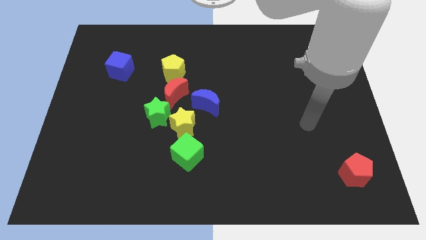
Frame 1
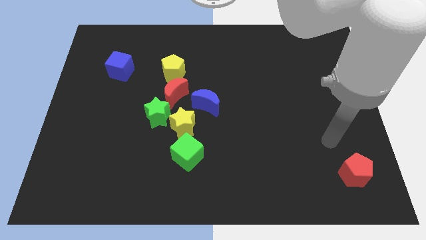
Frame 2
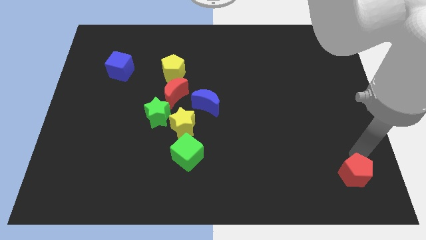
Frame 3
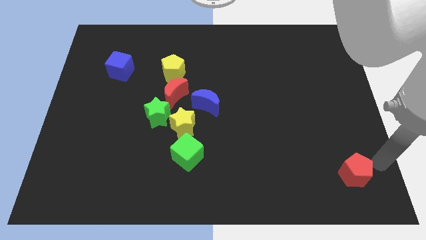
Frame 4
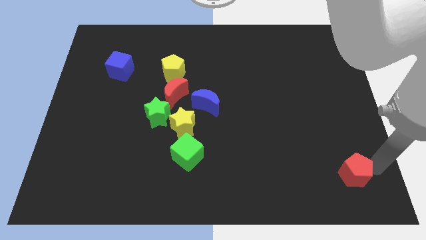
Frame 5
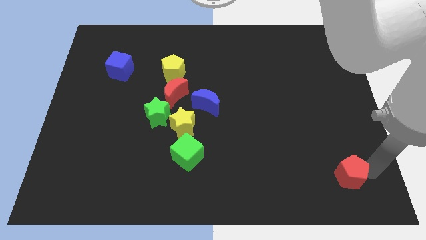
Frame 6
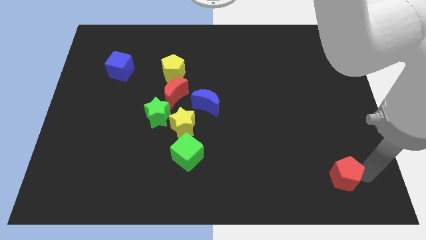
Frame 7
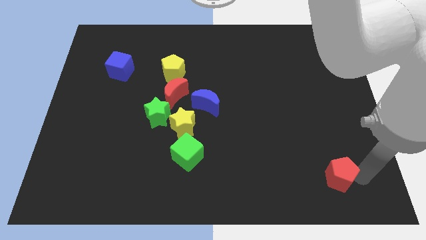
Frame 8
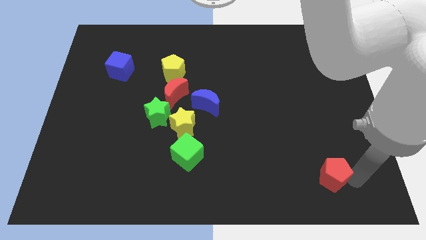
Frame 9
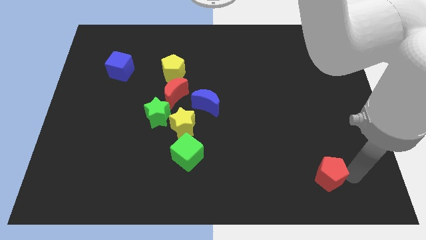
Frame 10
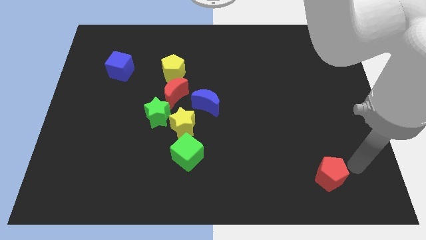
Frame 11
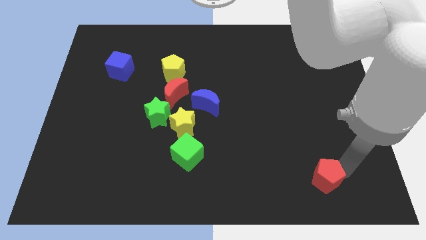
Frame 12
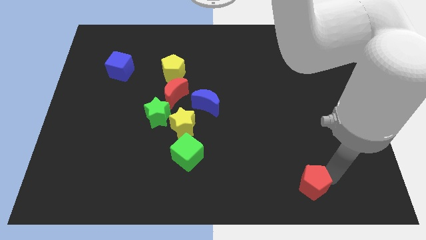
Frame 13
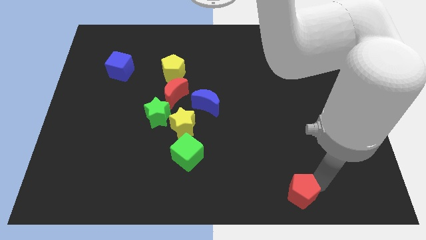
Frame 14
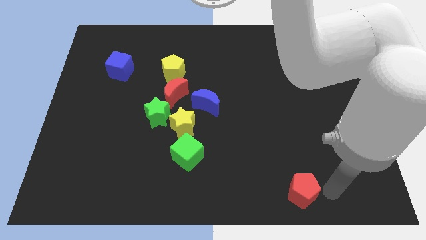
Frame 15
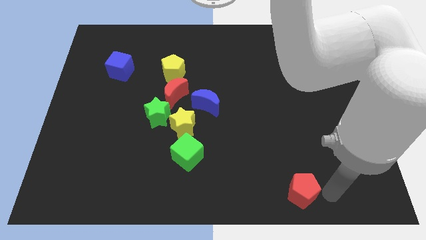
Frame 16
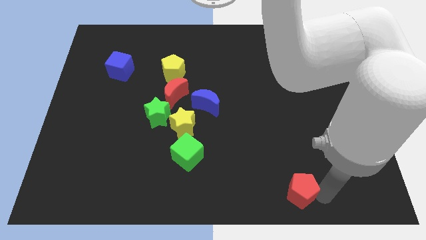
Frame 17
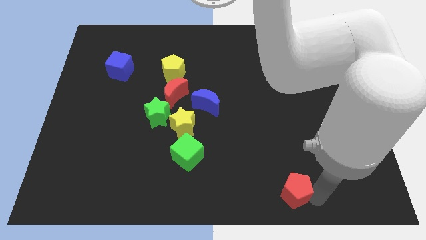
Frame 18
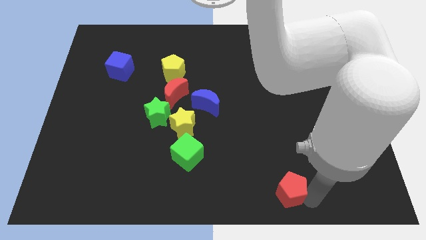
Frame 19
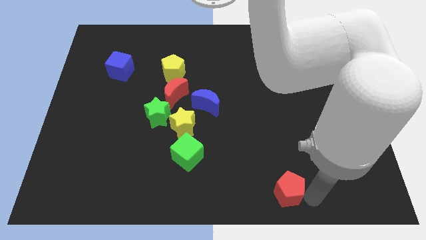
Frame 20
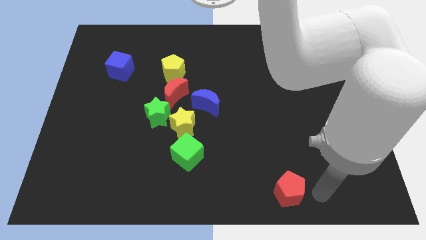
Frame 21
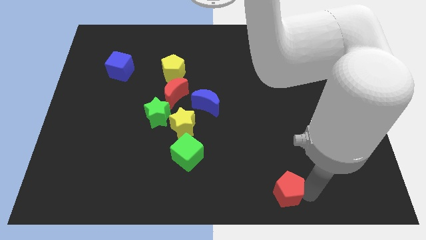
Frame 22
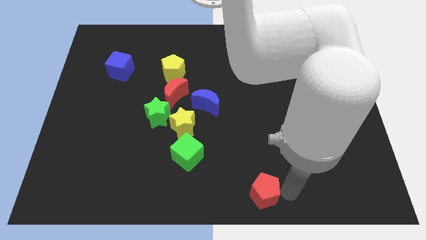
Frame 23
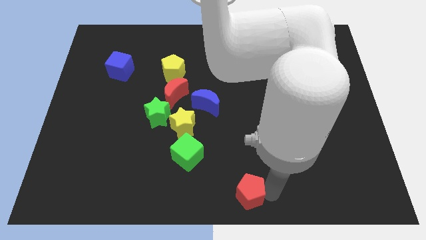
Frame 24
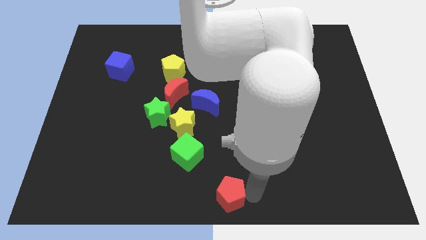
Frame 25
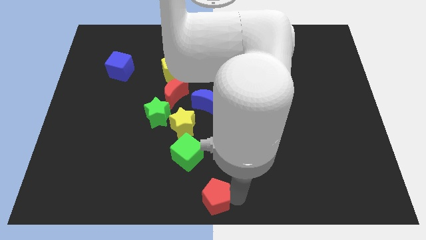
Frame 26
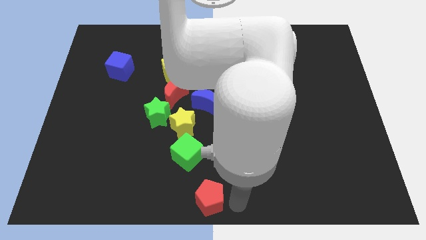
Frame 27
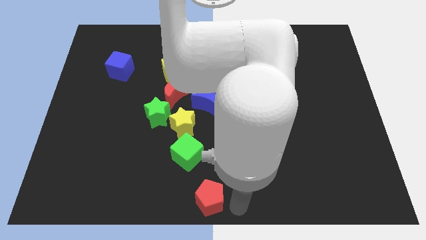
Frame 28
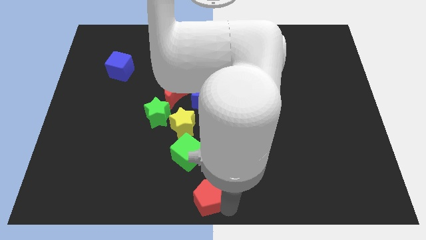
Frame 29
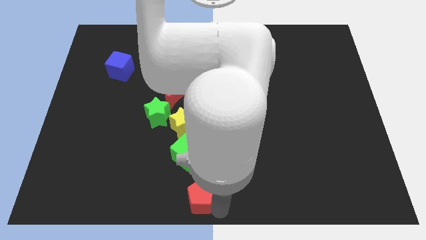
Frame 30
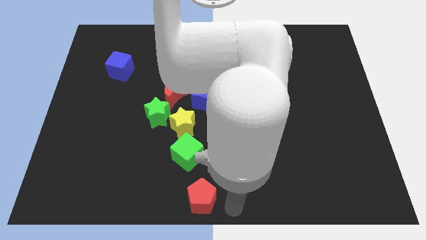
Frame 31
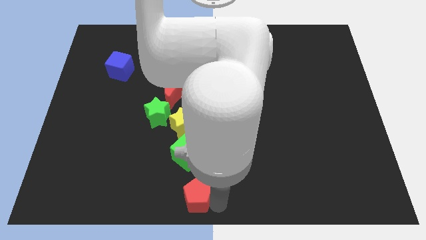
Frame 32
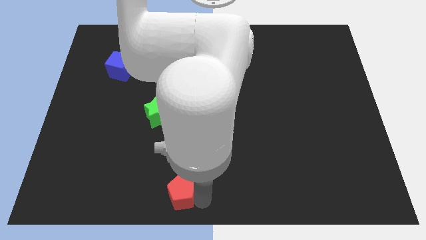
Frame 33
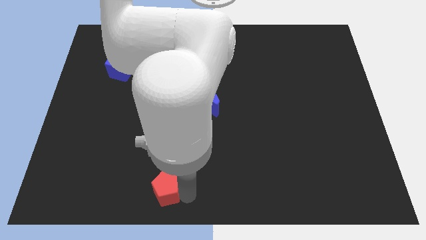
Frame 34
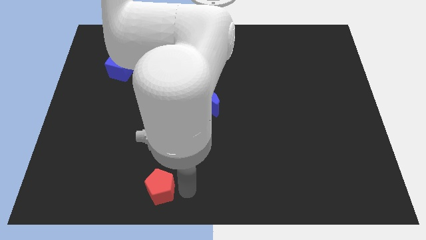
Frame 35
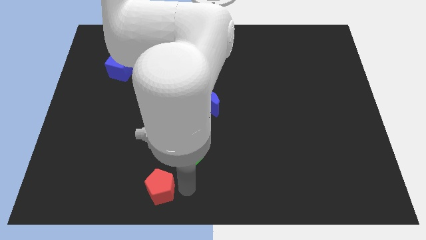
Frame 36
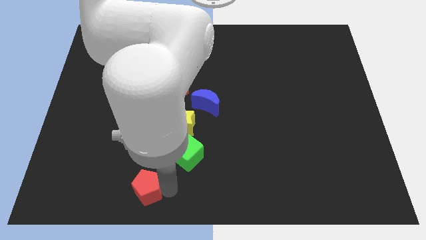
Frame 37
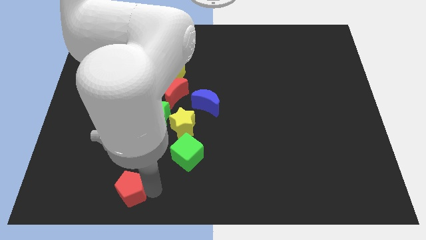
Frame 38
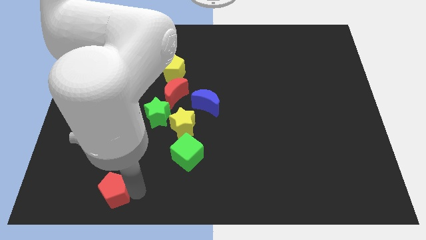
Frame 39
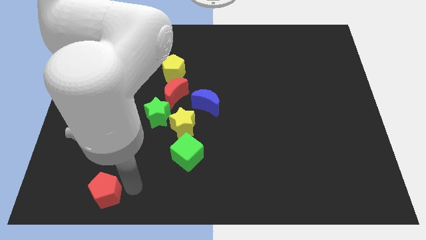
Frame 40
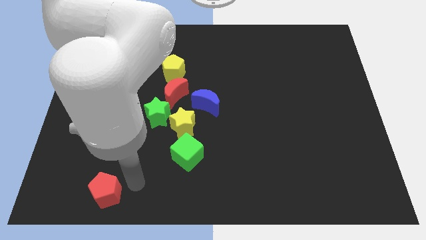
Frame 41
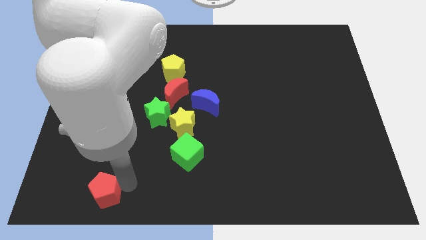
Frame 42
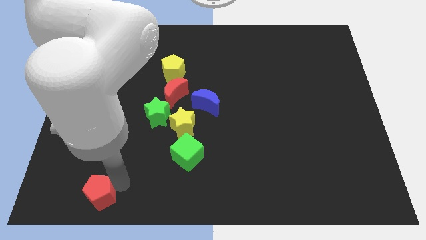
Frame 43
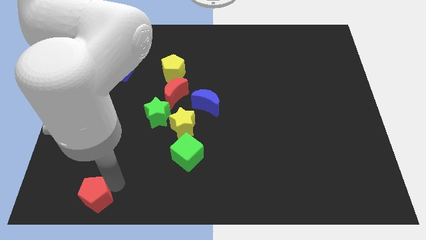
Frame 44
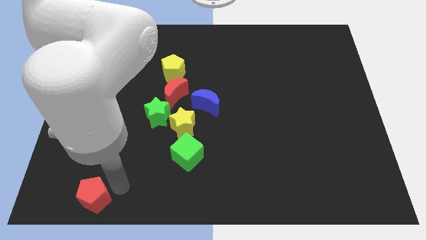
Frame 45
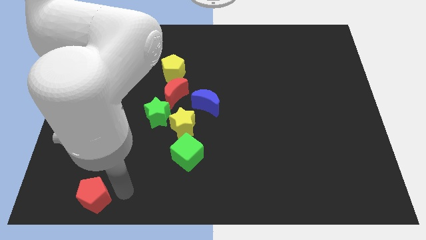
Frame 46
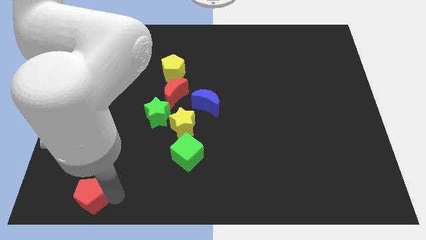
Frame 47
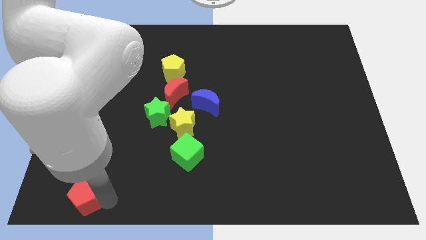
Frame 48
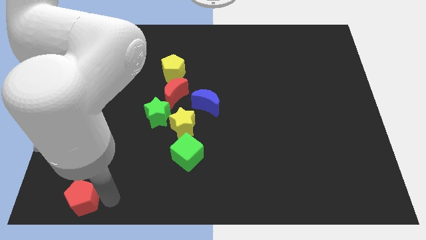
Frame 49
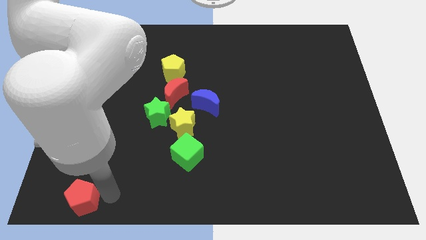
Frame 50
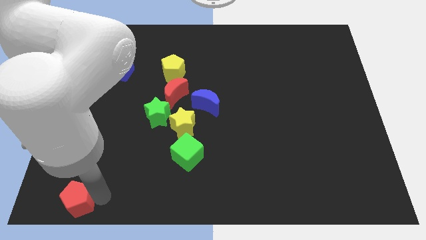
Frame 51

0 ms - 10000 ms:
push the red pentagon to the bottom left of the board

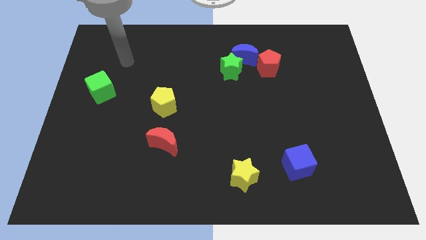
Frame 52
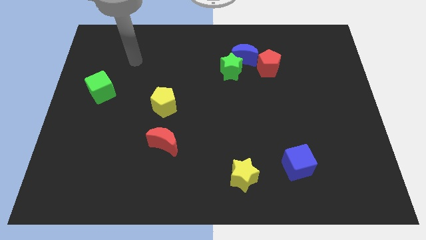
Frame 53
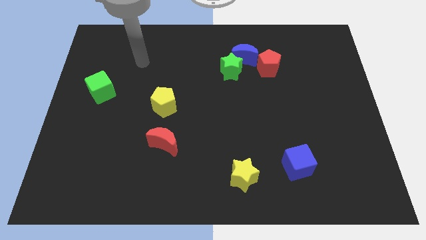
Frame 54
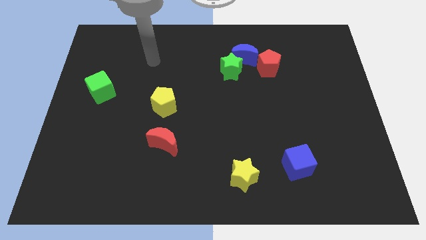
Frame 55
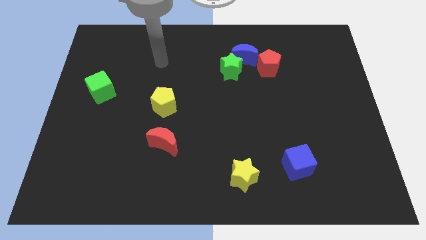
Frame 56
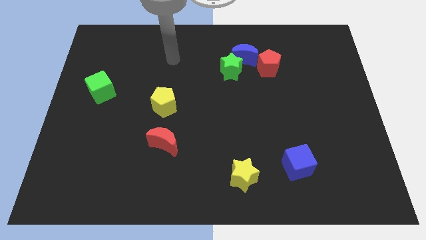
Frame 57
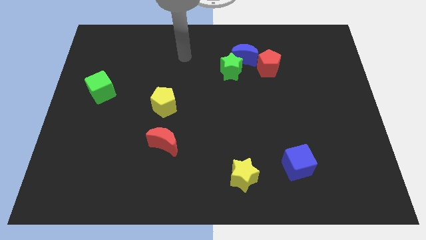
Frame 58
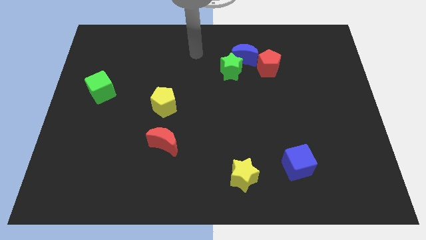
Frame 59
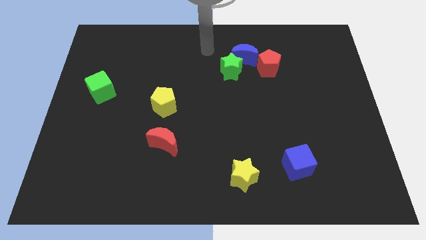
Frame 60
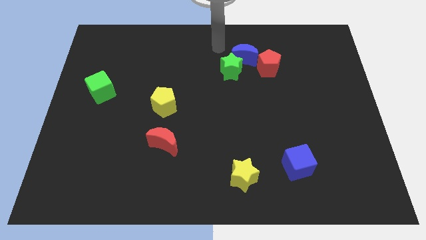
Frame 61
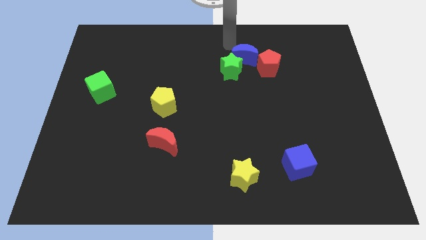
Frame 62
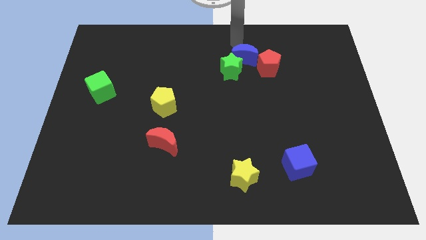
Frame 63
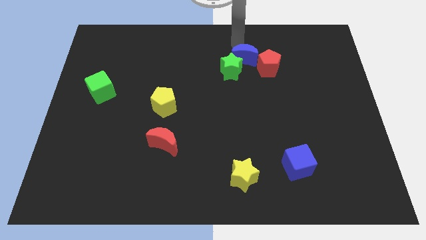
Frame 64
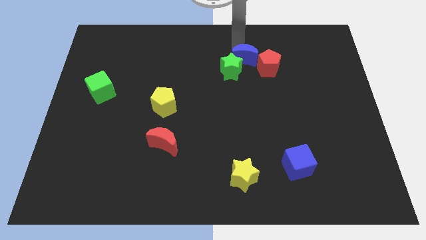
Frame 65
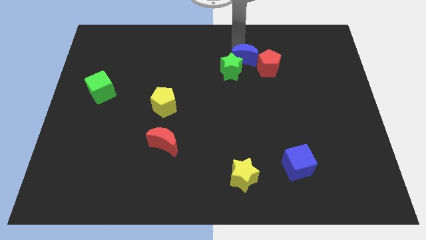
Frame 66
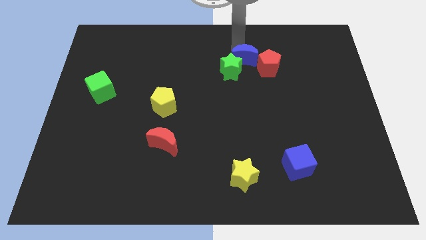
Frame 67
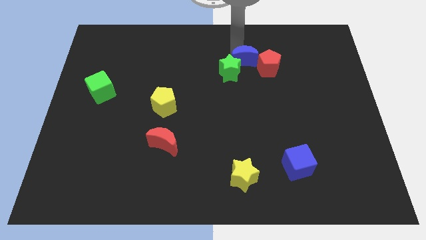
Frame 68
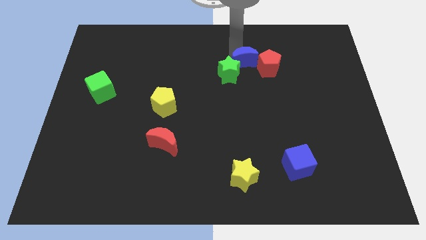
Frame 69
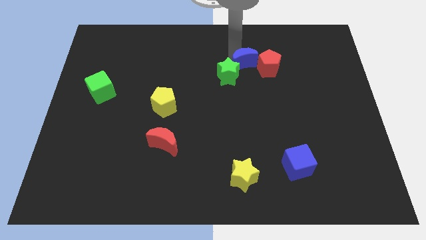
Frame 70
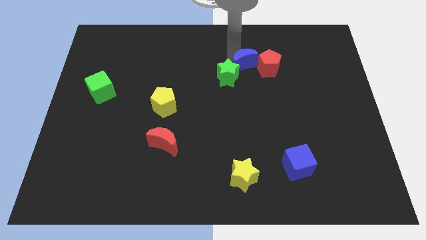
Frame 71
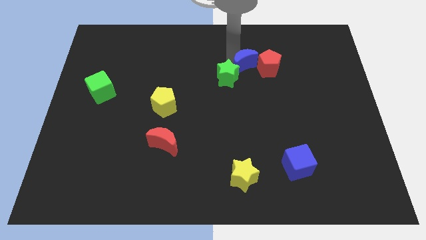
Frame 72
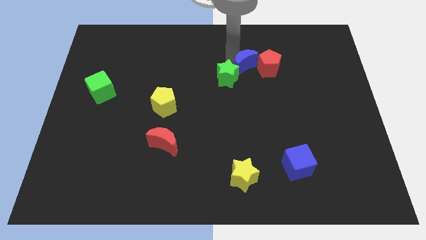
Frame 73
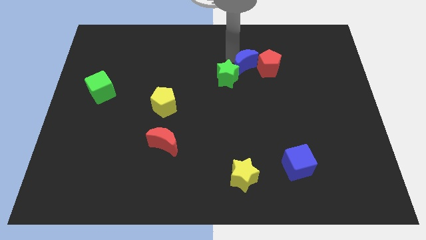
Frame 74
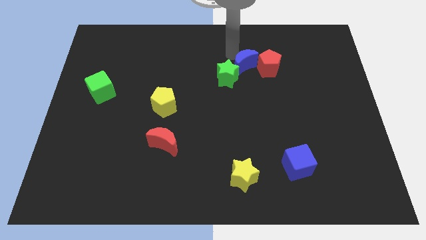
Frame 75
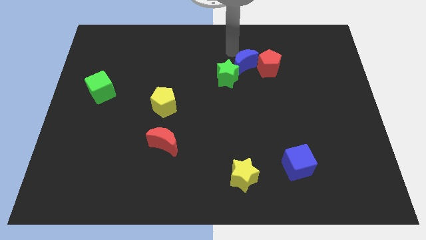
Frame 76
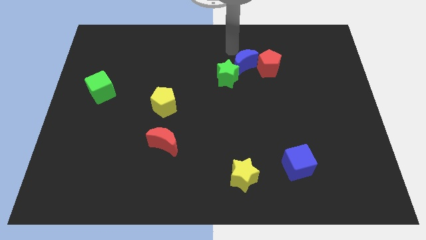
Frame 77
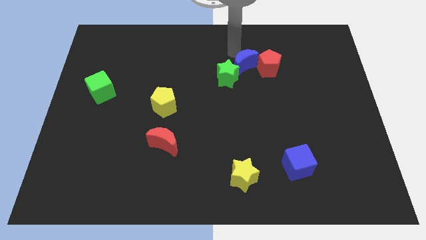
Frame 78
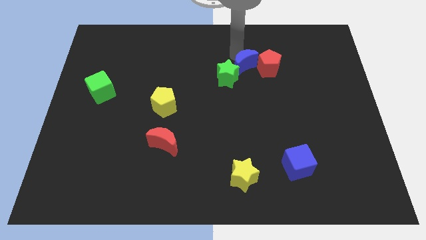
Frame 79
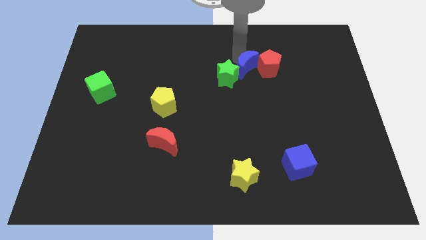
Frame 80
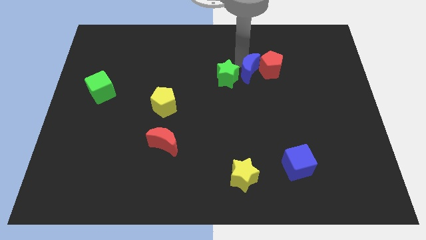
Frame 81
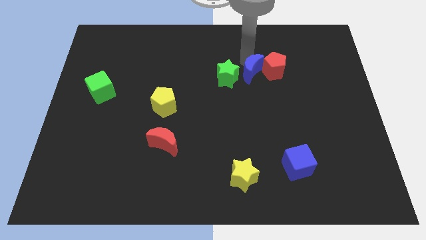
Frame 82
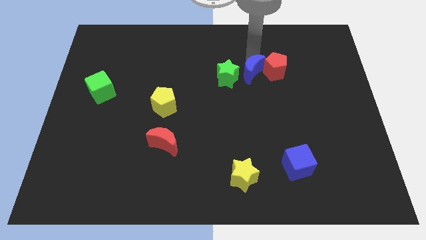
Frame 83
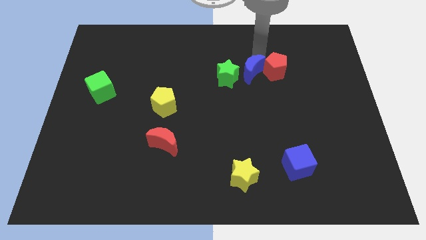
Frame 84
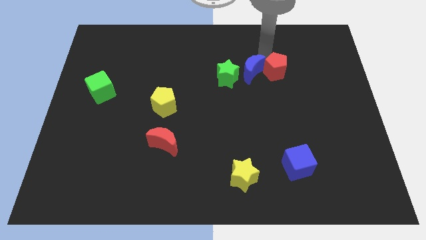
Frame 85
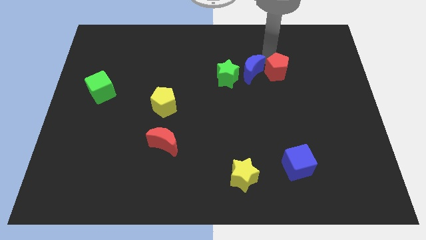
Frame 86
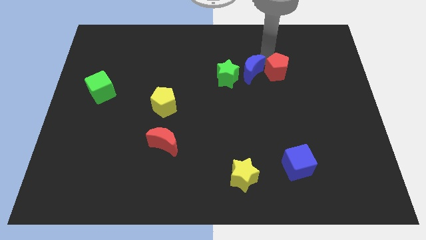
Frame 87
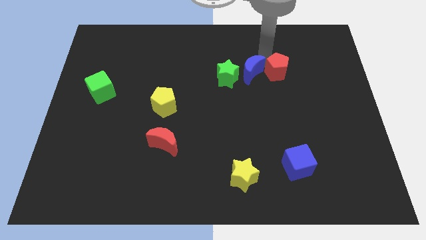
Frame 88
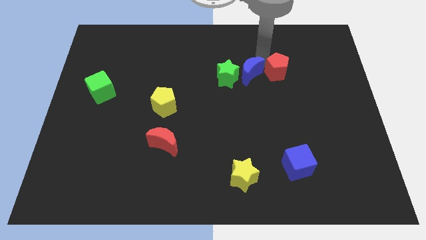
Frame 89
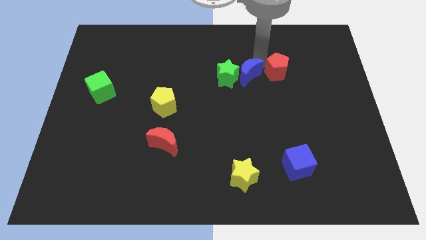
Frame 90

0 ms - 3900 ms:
put the blue moon to the center of the board
